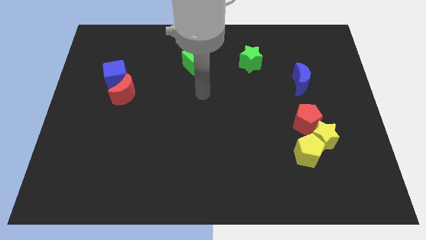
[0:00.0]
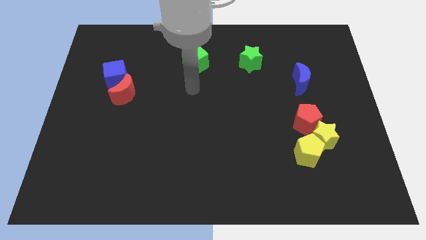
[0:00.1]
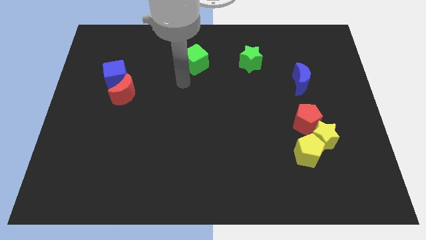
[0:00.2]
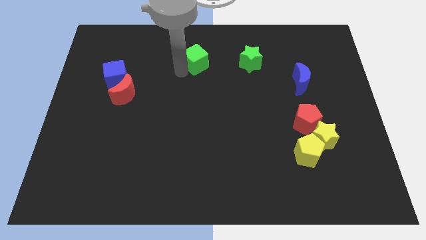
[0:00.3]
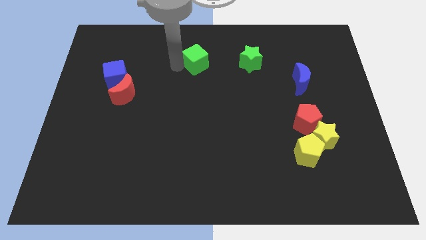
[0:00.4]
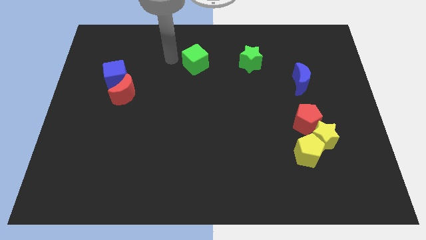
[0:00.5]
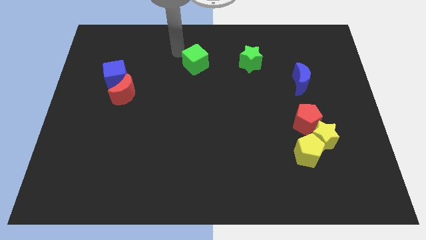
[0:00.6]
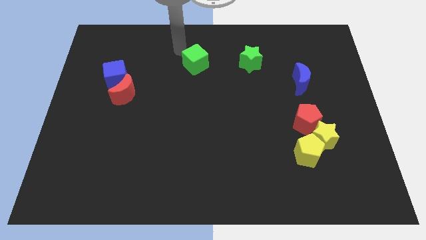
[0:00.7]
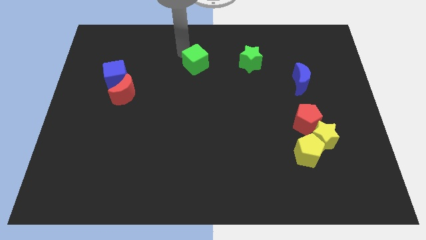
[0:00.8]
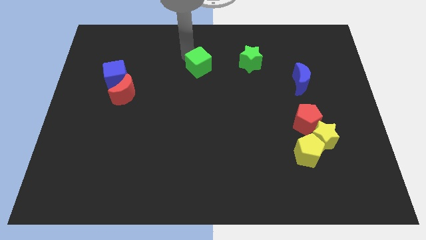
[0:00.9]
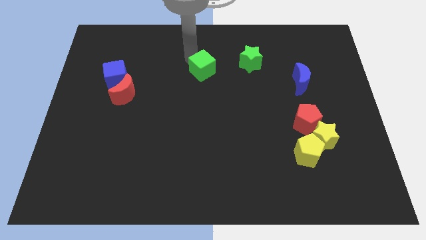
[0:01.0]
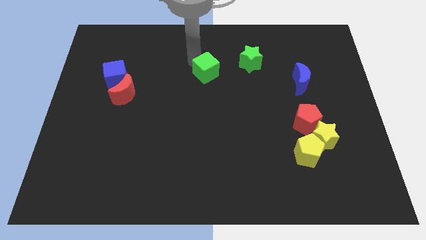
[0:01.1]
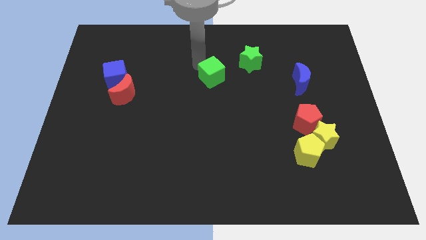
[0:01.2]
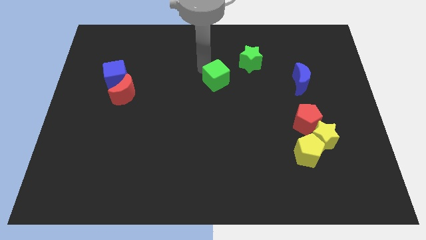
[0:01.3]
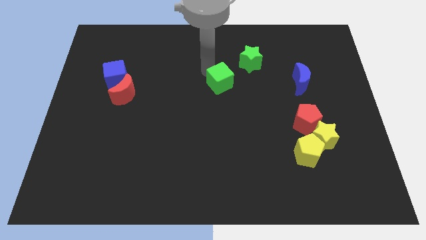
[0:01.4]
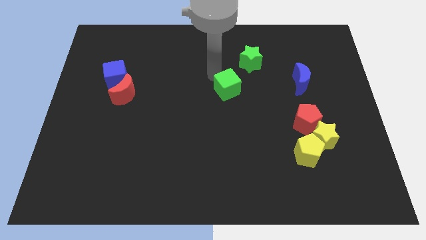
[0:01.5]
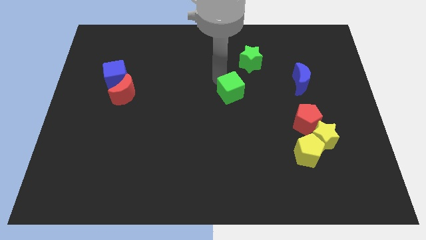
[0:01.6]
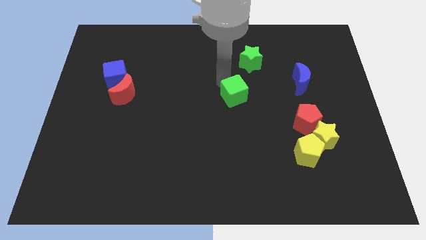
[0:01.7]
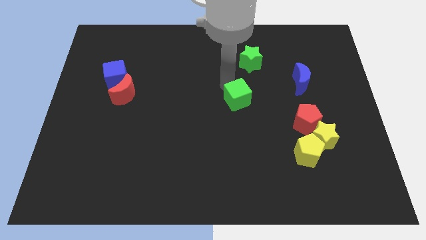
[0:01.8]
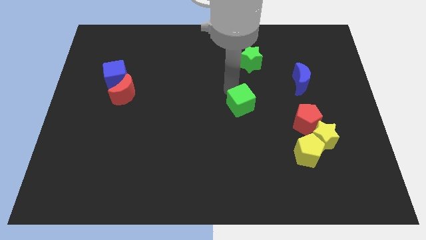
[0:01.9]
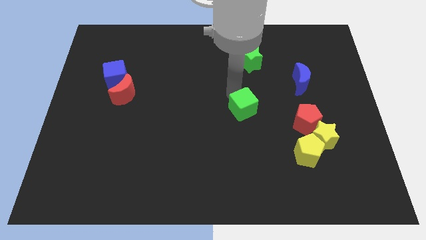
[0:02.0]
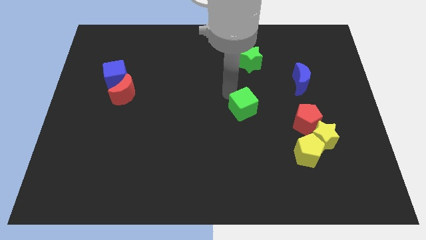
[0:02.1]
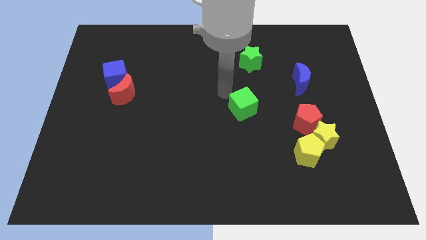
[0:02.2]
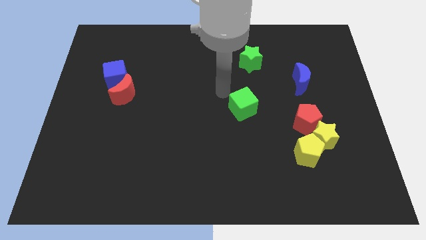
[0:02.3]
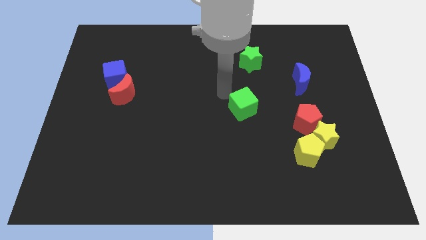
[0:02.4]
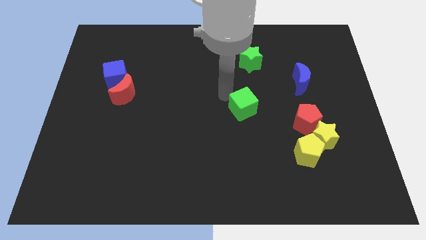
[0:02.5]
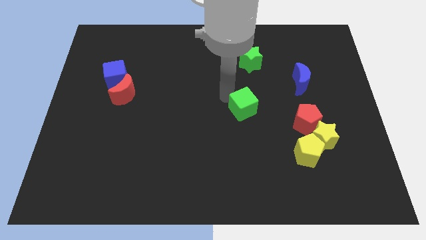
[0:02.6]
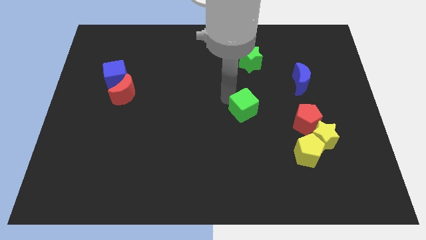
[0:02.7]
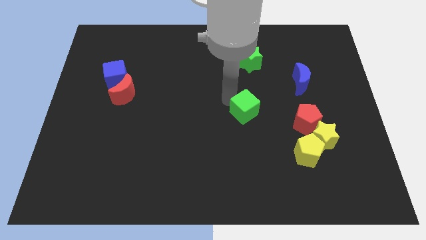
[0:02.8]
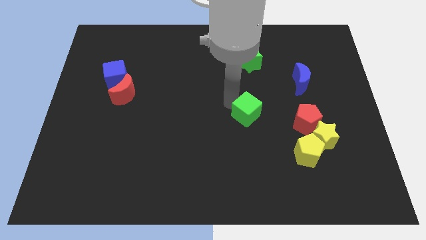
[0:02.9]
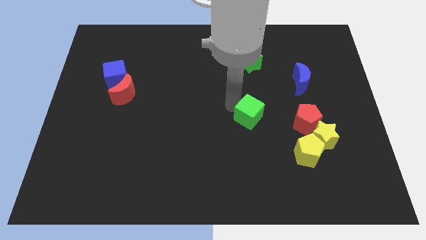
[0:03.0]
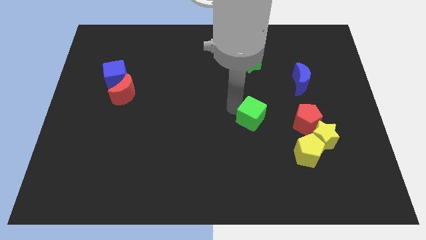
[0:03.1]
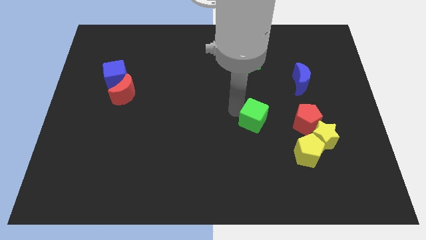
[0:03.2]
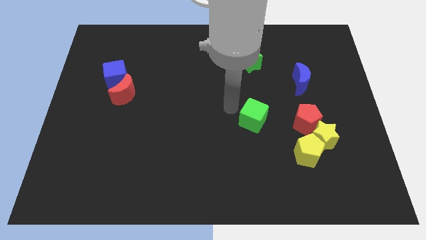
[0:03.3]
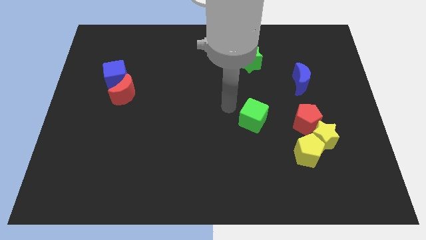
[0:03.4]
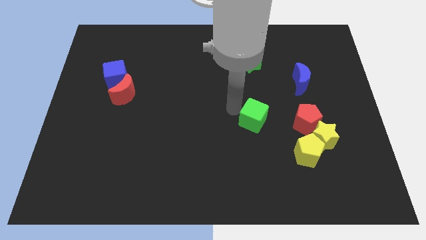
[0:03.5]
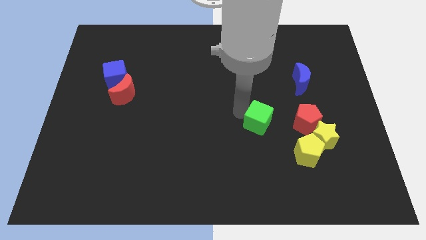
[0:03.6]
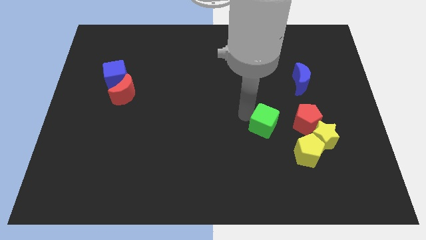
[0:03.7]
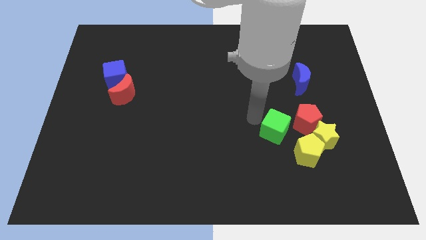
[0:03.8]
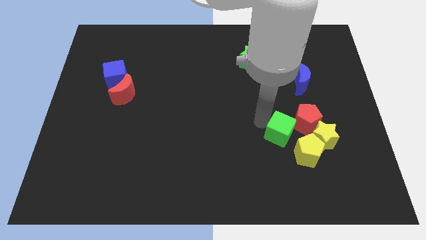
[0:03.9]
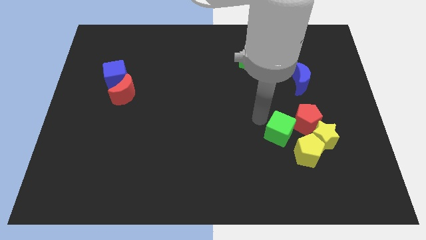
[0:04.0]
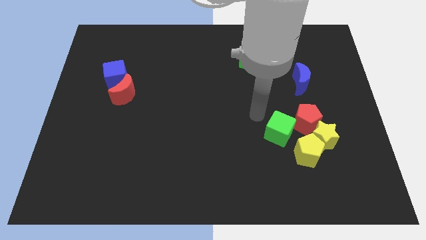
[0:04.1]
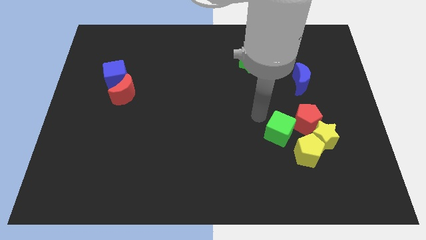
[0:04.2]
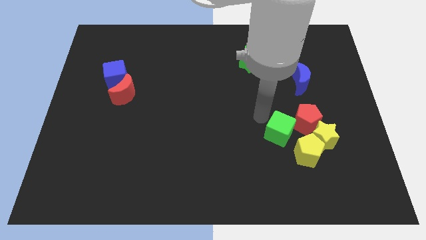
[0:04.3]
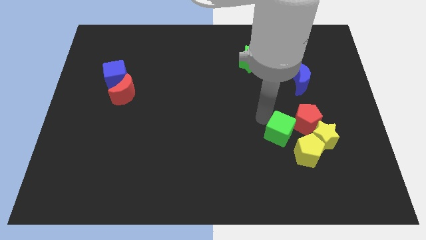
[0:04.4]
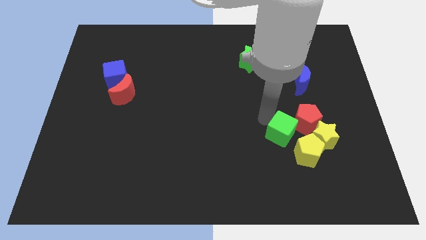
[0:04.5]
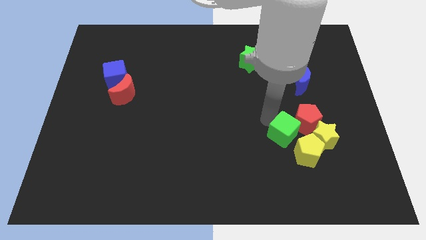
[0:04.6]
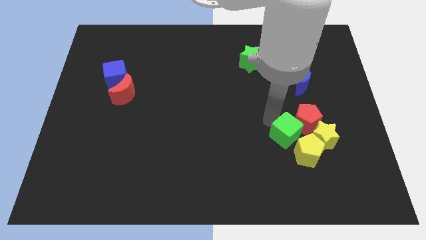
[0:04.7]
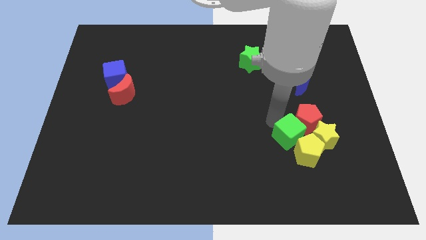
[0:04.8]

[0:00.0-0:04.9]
slide the green cube towards the yellow pentagon

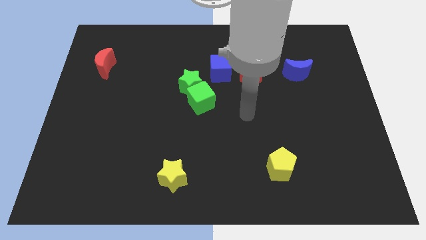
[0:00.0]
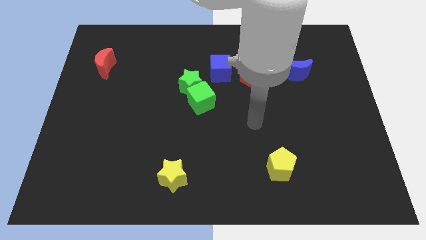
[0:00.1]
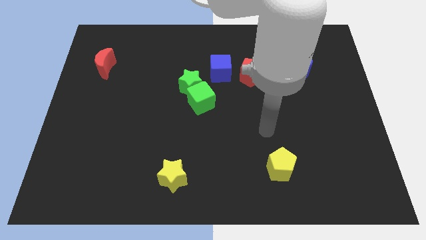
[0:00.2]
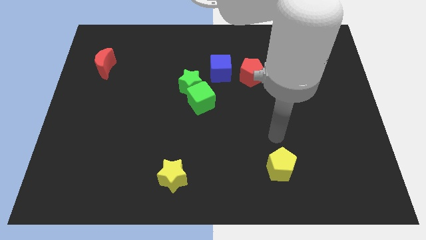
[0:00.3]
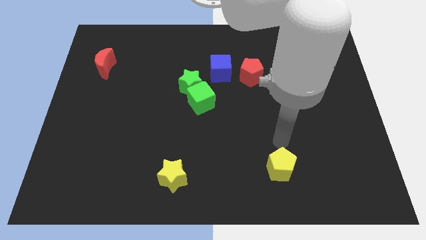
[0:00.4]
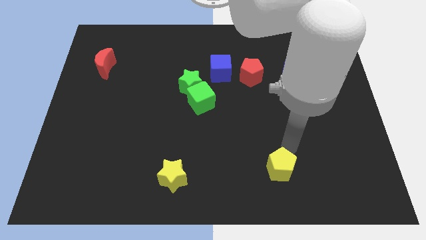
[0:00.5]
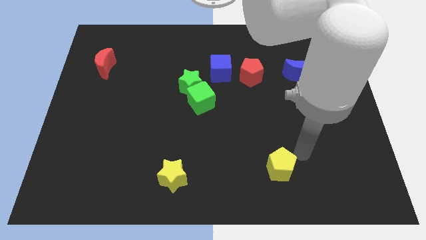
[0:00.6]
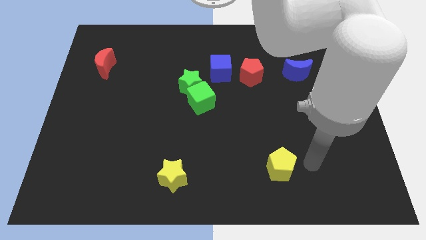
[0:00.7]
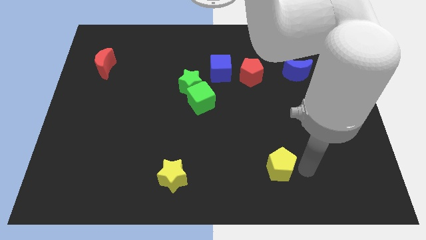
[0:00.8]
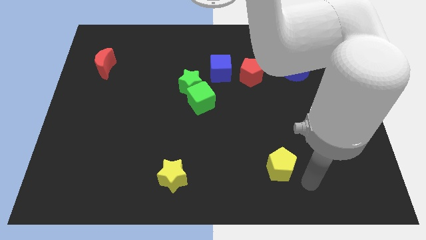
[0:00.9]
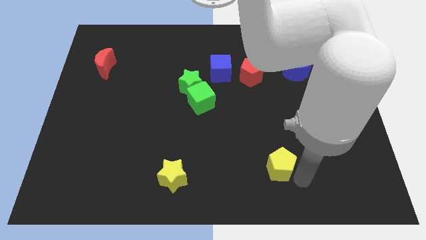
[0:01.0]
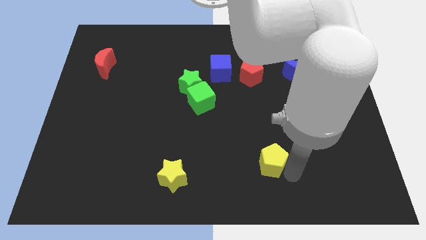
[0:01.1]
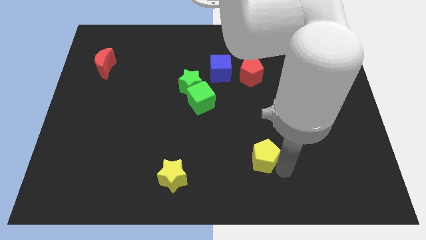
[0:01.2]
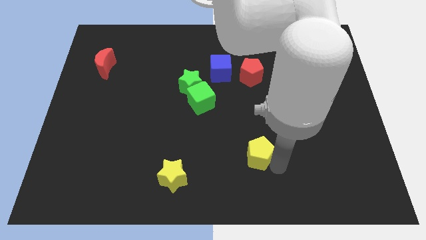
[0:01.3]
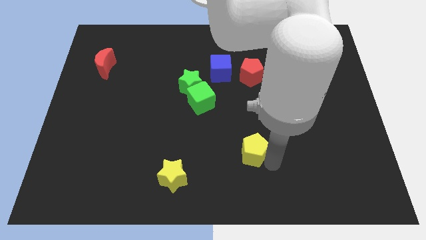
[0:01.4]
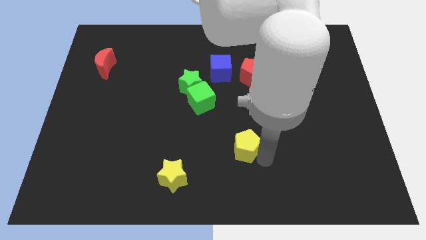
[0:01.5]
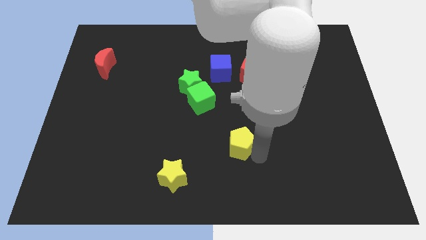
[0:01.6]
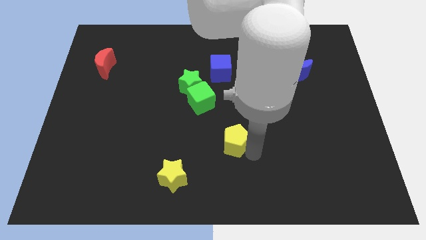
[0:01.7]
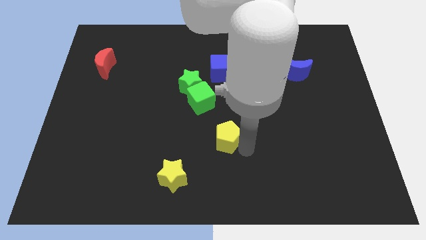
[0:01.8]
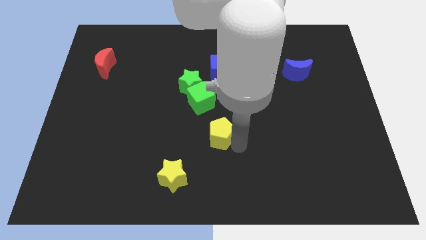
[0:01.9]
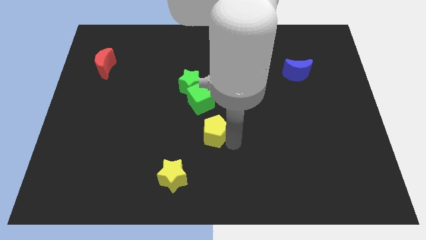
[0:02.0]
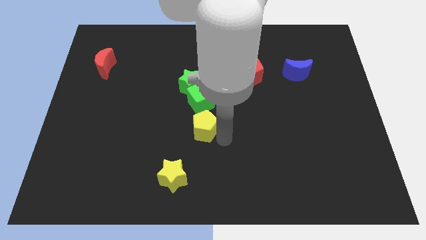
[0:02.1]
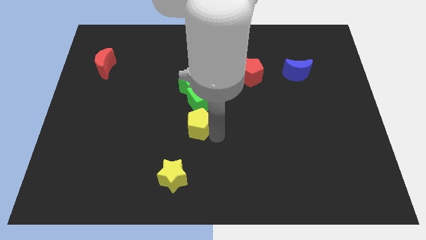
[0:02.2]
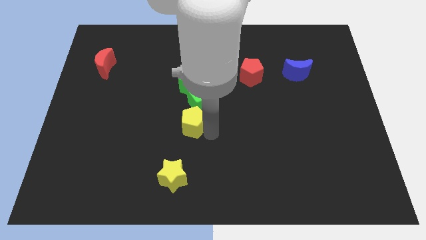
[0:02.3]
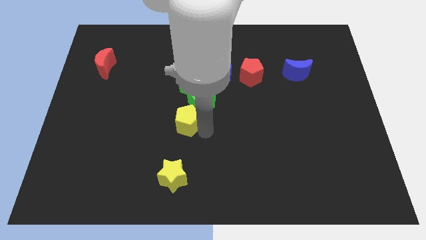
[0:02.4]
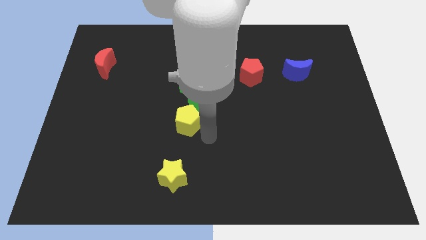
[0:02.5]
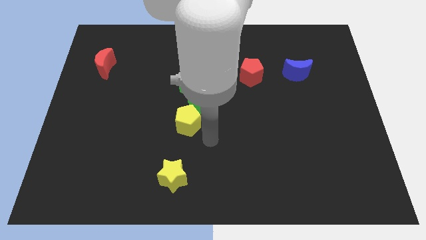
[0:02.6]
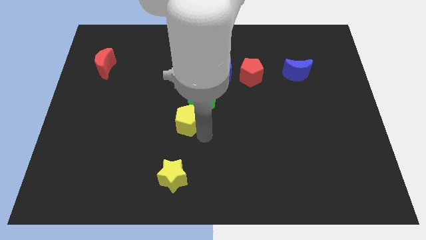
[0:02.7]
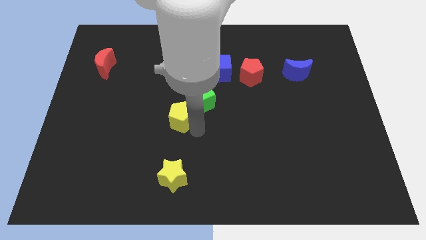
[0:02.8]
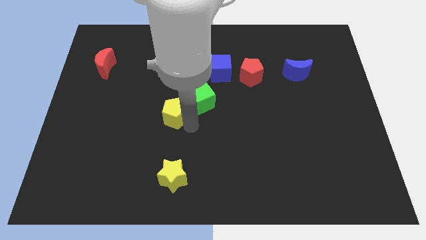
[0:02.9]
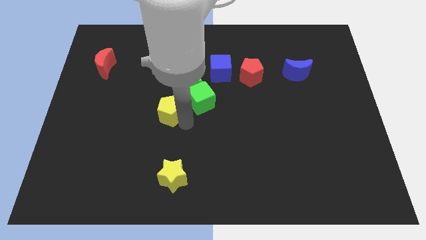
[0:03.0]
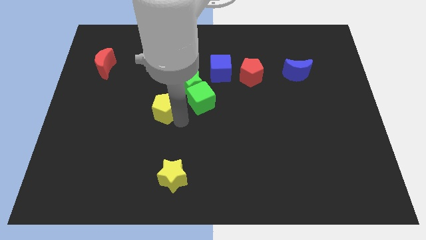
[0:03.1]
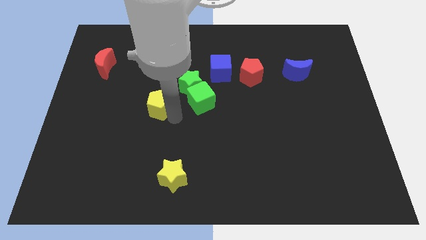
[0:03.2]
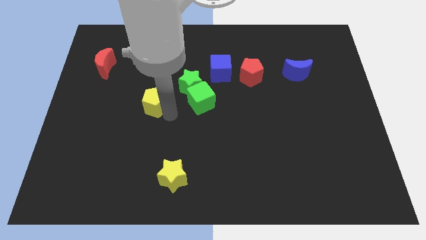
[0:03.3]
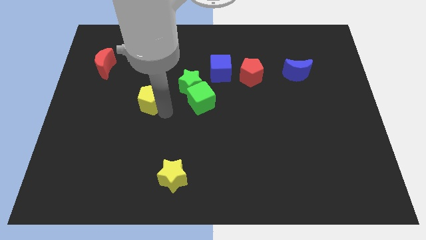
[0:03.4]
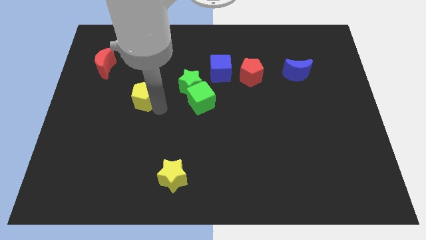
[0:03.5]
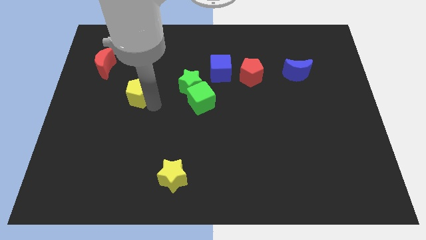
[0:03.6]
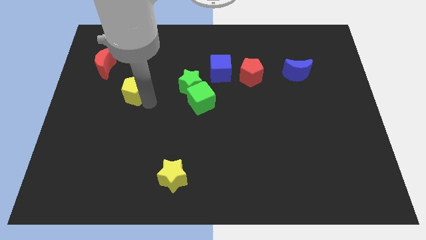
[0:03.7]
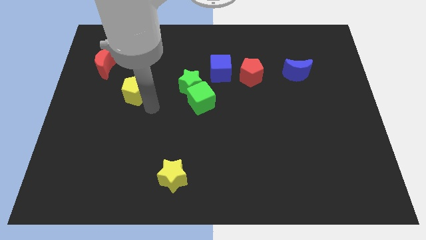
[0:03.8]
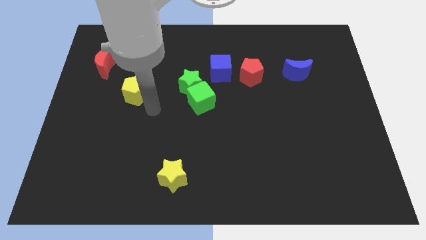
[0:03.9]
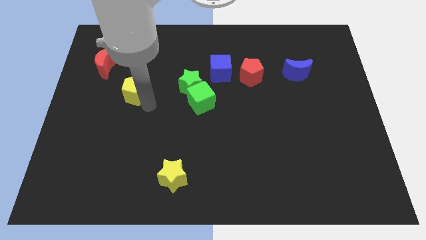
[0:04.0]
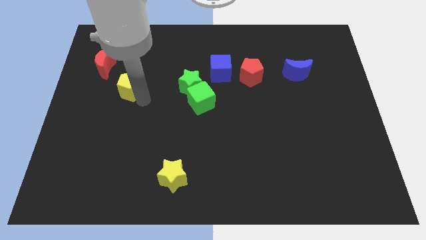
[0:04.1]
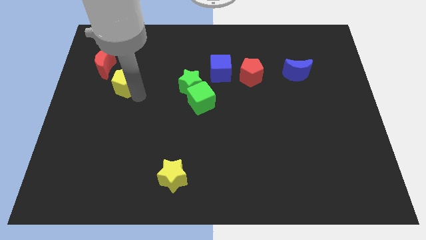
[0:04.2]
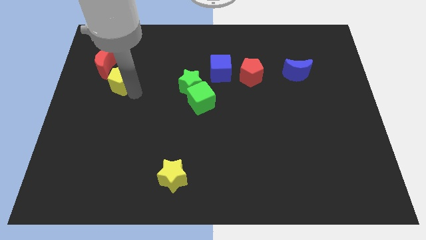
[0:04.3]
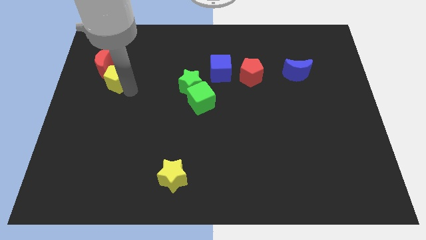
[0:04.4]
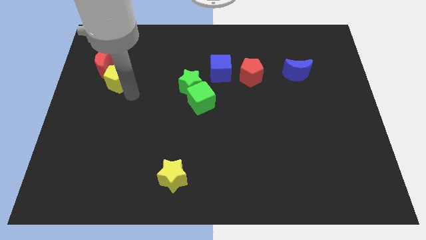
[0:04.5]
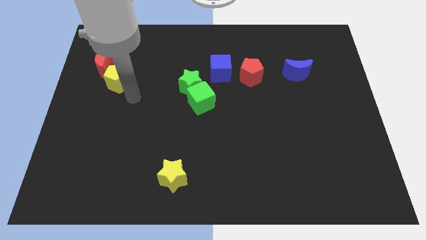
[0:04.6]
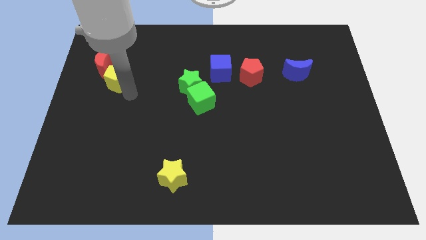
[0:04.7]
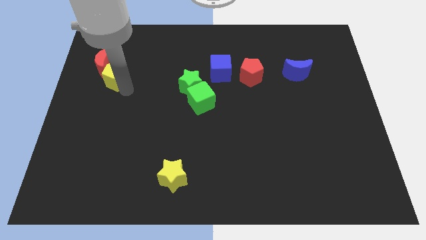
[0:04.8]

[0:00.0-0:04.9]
slide the yellow pentagon towards the red moon
